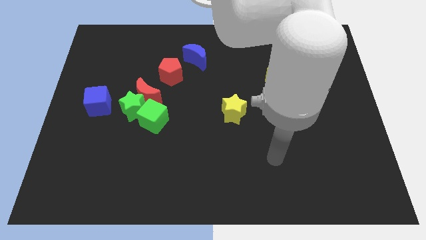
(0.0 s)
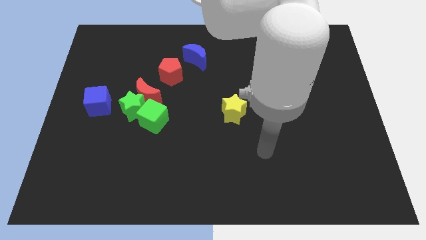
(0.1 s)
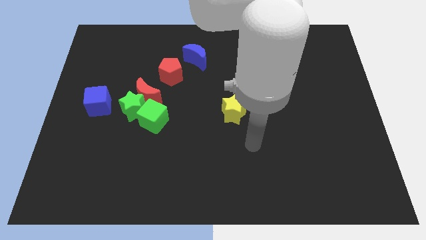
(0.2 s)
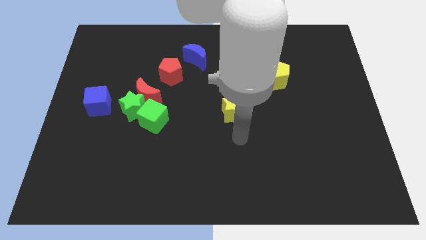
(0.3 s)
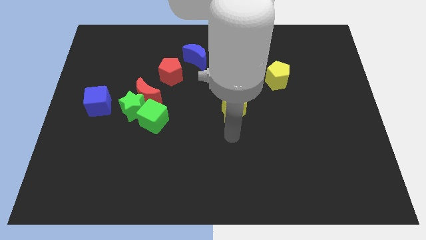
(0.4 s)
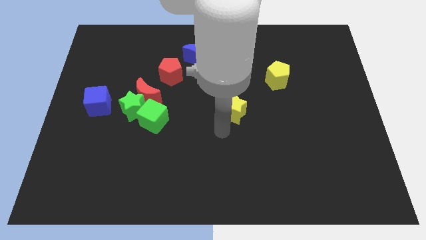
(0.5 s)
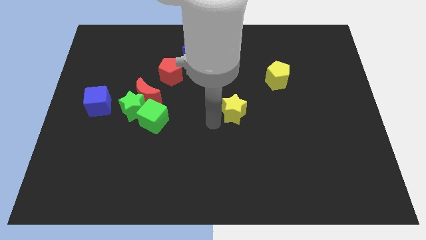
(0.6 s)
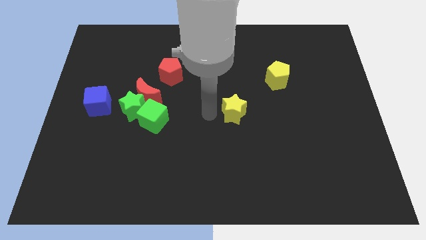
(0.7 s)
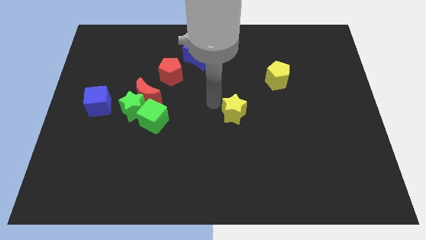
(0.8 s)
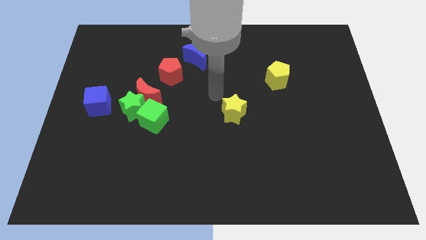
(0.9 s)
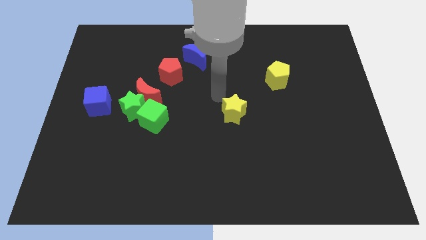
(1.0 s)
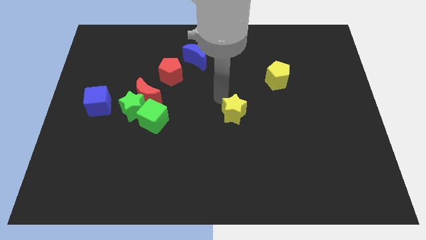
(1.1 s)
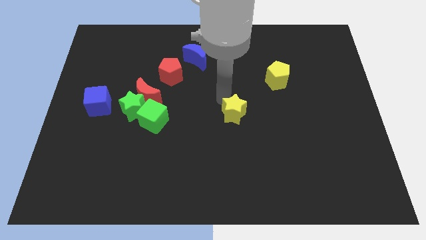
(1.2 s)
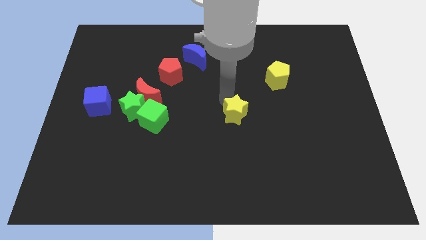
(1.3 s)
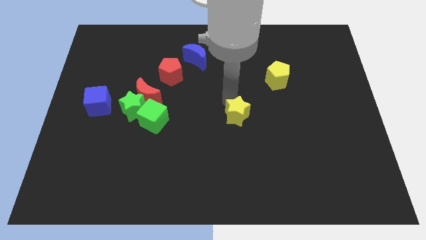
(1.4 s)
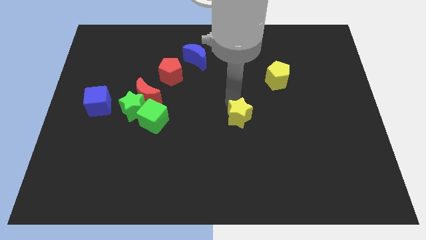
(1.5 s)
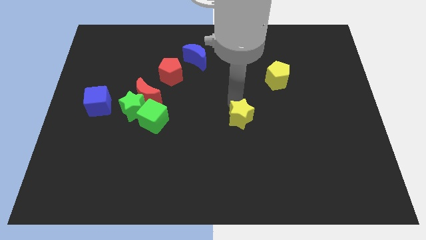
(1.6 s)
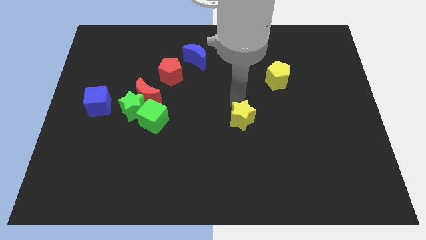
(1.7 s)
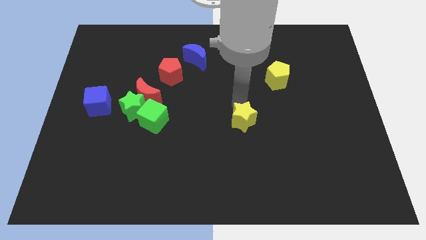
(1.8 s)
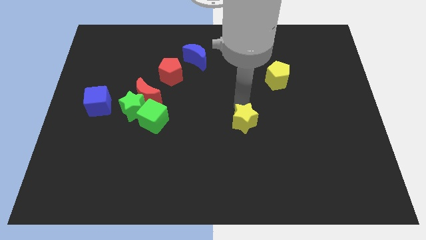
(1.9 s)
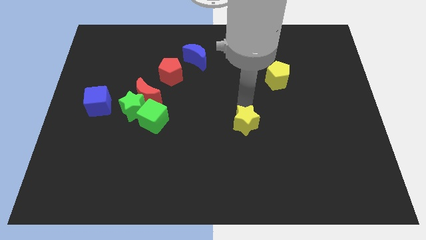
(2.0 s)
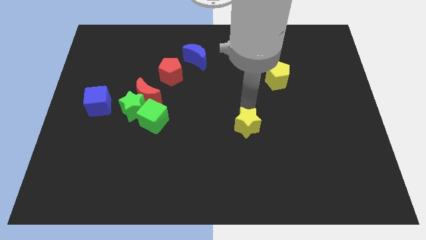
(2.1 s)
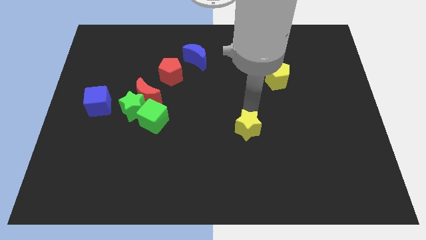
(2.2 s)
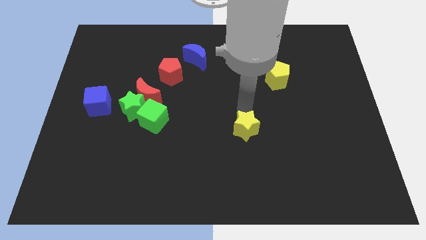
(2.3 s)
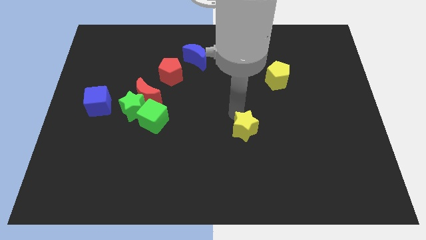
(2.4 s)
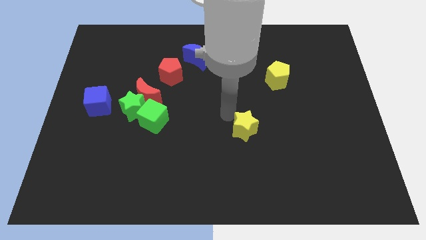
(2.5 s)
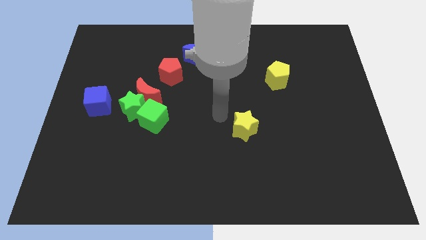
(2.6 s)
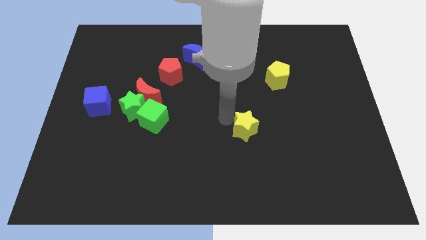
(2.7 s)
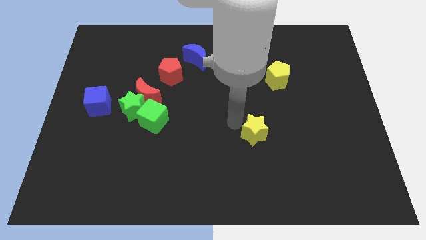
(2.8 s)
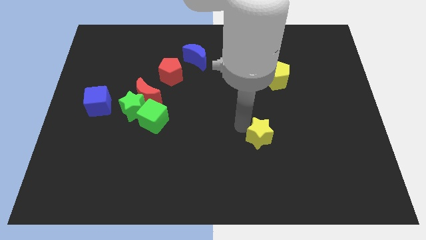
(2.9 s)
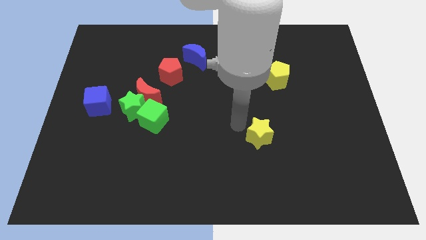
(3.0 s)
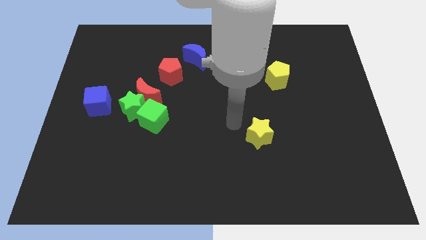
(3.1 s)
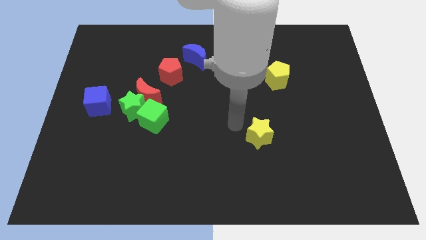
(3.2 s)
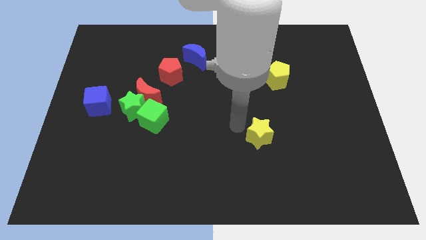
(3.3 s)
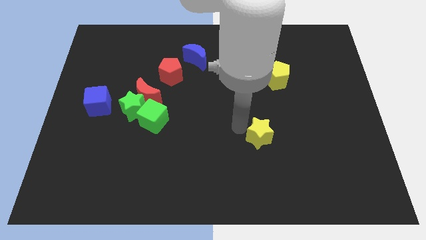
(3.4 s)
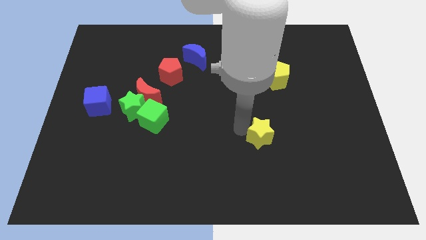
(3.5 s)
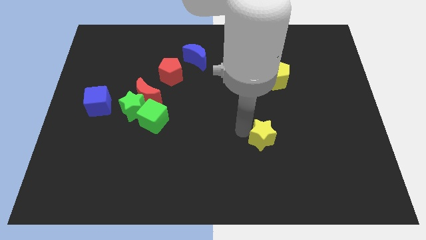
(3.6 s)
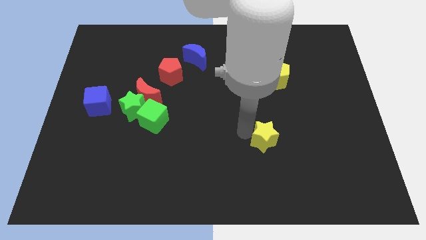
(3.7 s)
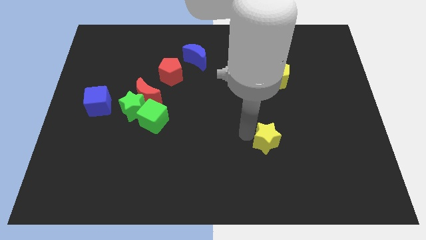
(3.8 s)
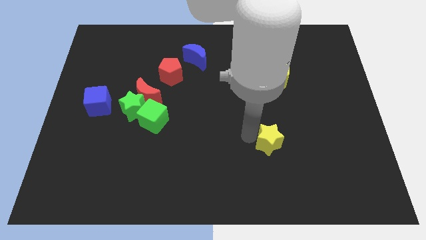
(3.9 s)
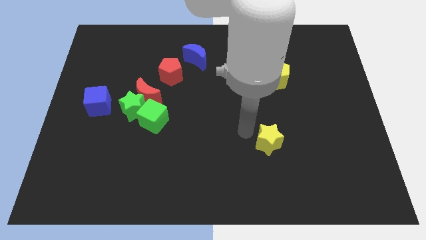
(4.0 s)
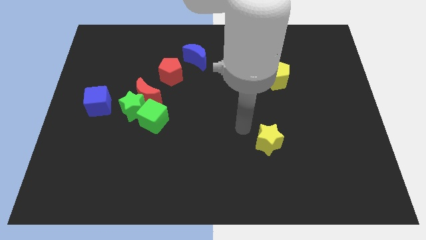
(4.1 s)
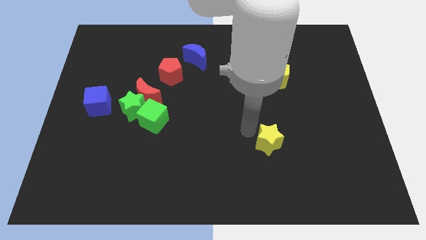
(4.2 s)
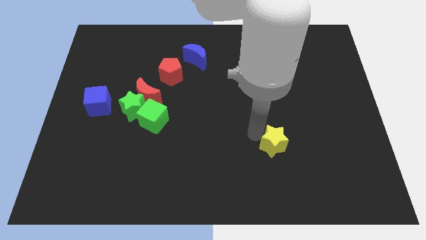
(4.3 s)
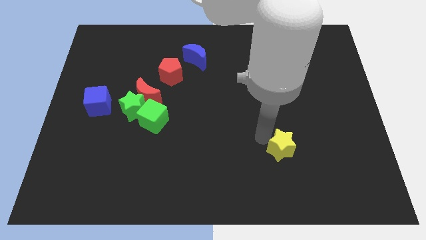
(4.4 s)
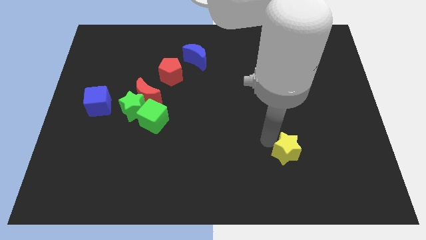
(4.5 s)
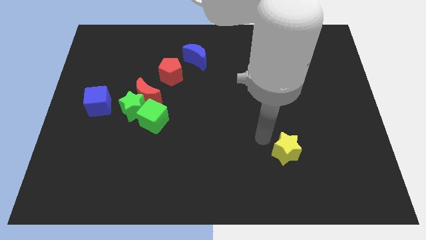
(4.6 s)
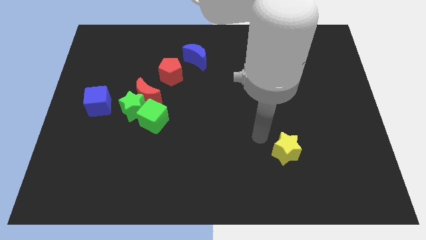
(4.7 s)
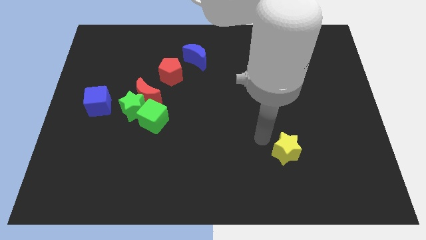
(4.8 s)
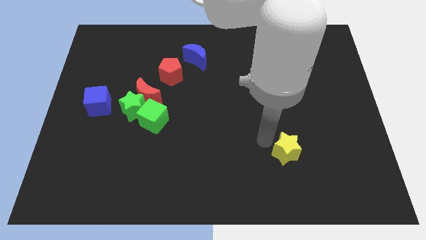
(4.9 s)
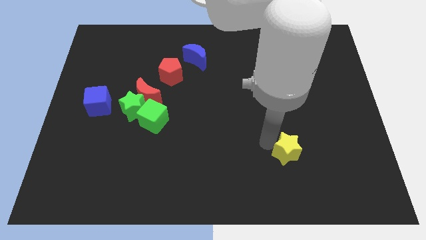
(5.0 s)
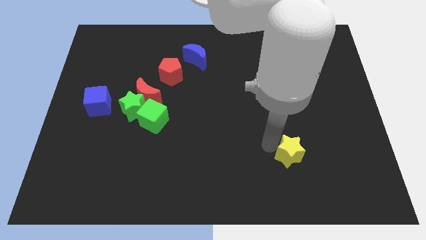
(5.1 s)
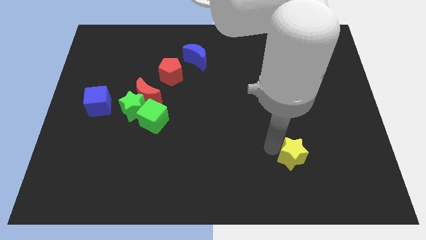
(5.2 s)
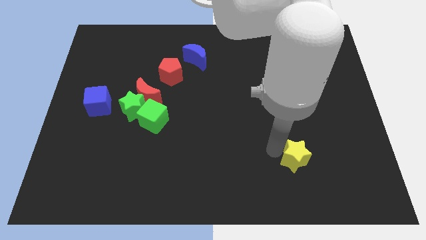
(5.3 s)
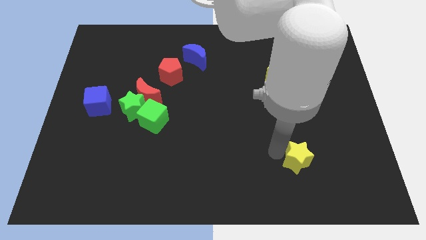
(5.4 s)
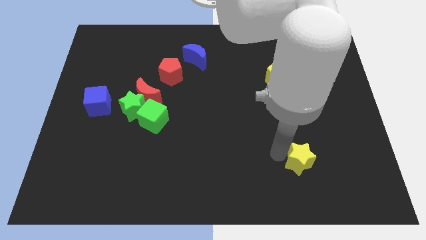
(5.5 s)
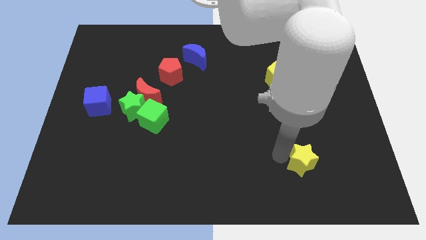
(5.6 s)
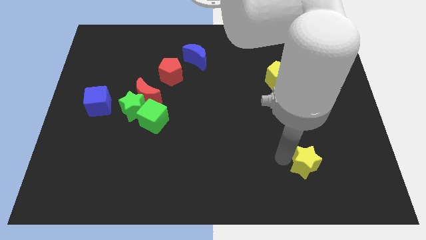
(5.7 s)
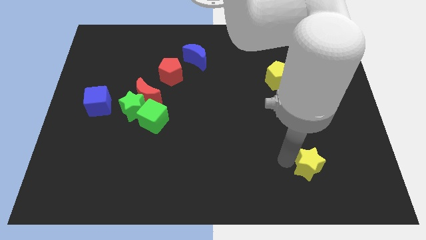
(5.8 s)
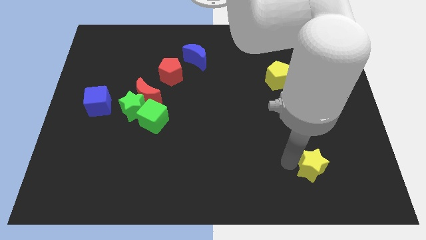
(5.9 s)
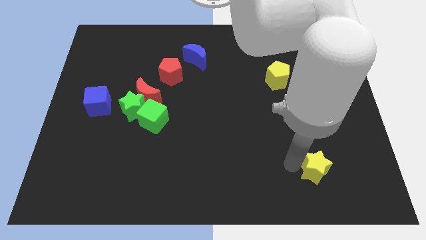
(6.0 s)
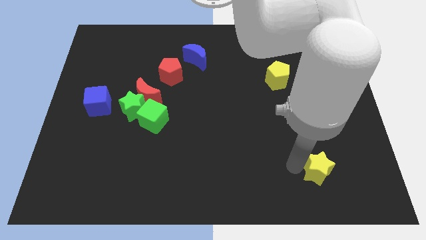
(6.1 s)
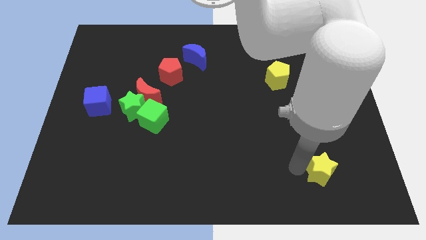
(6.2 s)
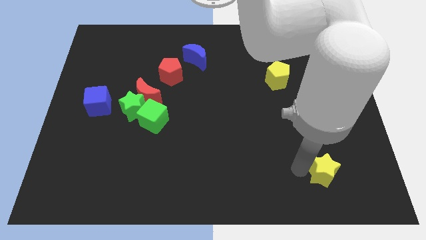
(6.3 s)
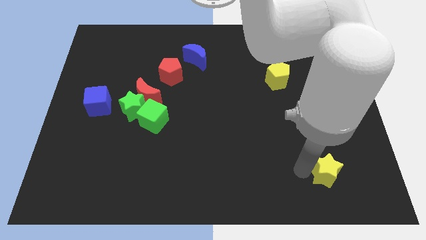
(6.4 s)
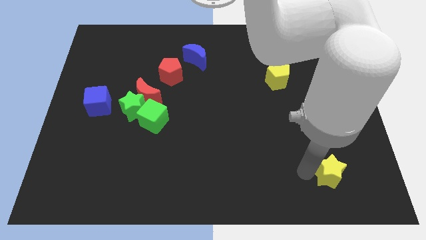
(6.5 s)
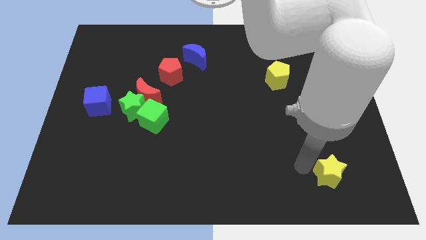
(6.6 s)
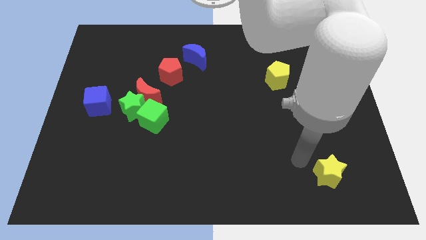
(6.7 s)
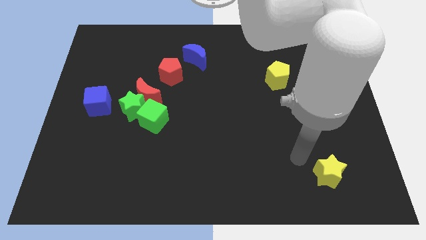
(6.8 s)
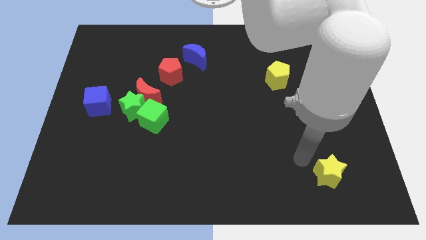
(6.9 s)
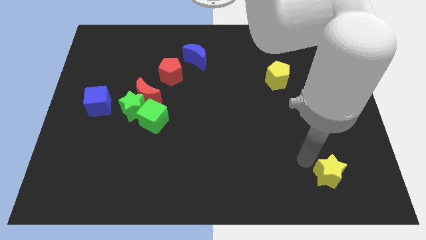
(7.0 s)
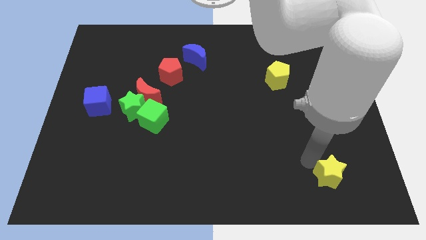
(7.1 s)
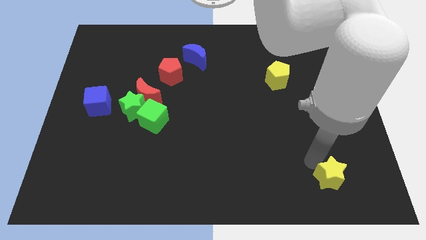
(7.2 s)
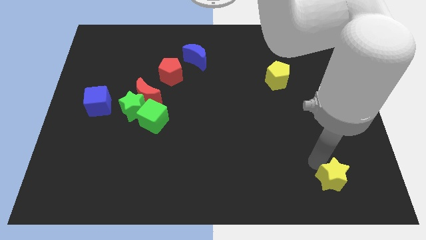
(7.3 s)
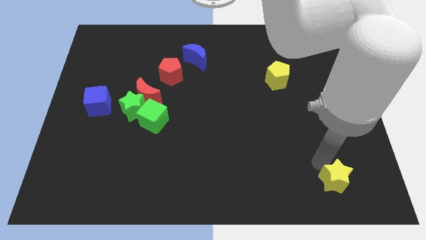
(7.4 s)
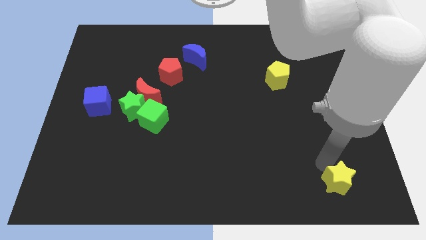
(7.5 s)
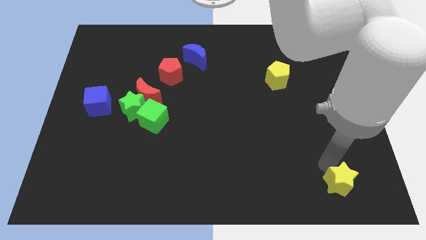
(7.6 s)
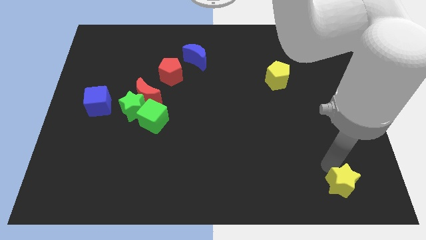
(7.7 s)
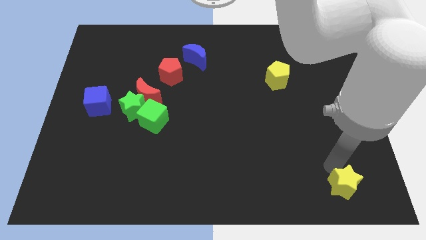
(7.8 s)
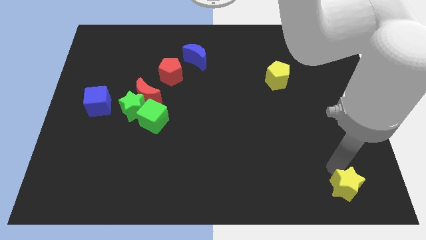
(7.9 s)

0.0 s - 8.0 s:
put the yellow star to the bottom right corner
